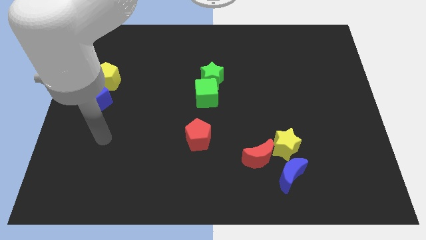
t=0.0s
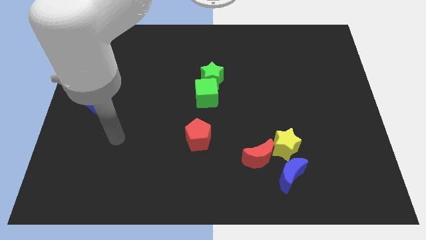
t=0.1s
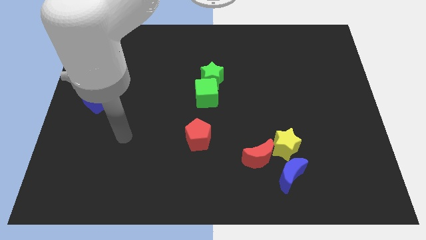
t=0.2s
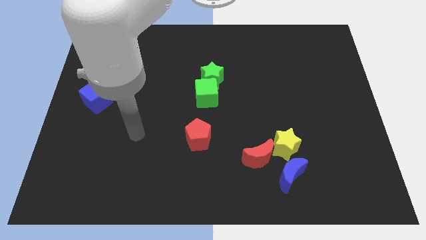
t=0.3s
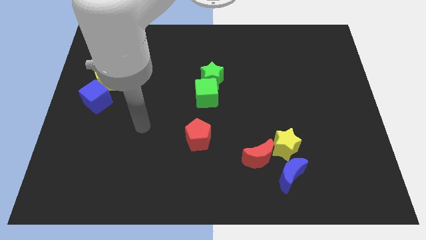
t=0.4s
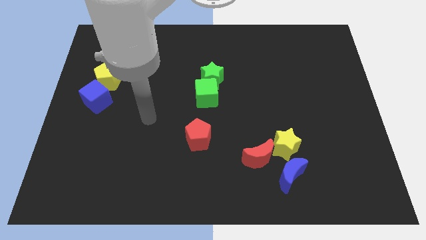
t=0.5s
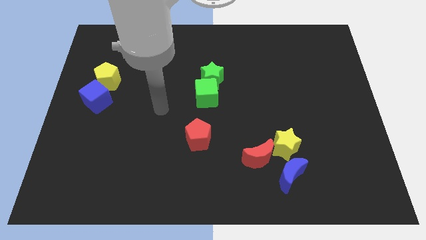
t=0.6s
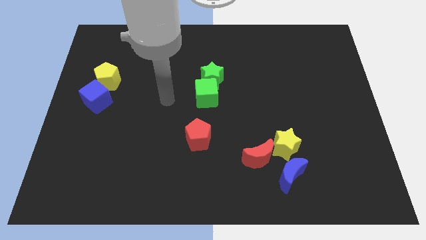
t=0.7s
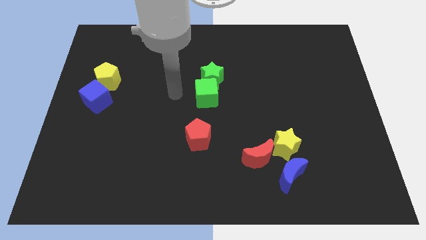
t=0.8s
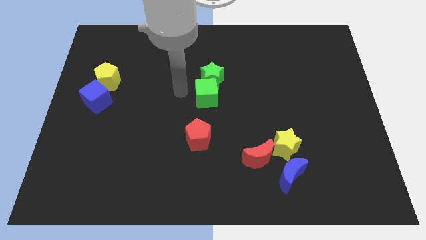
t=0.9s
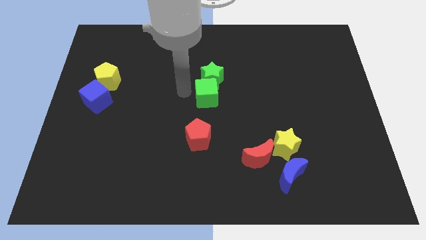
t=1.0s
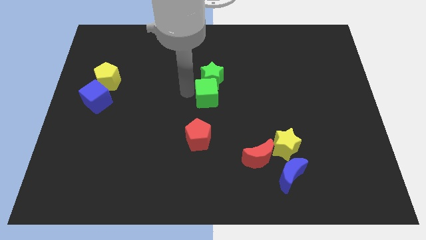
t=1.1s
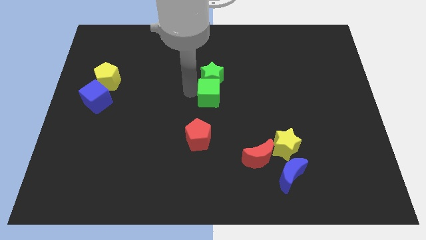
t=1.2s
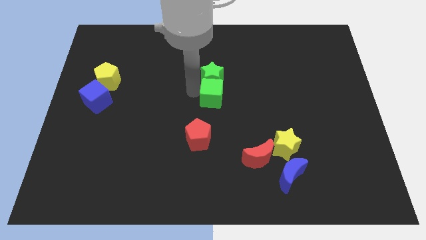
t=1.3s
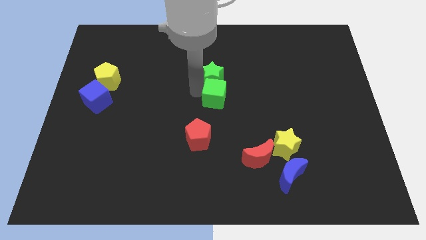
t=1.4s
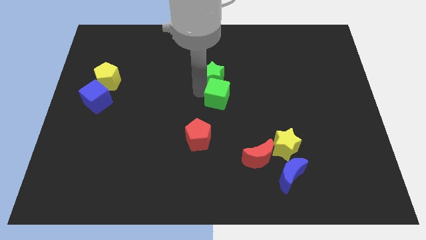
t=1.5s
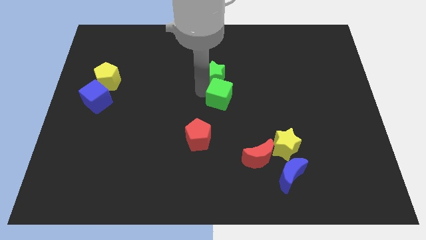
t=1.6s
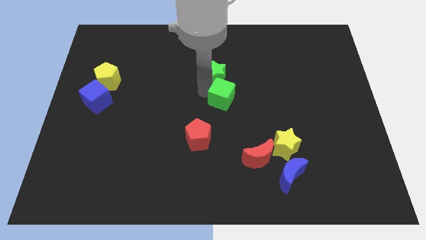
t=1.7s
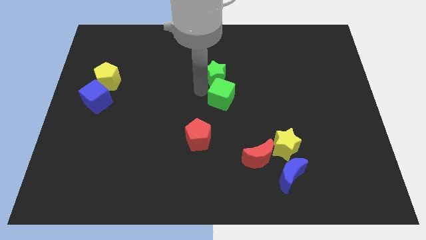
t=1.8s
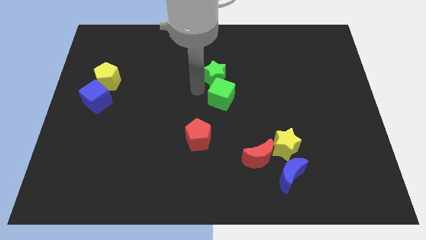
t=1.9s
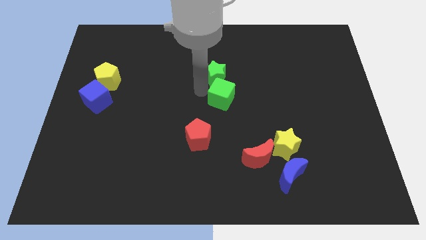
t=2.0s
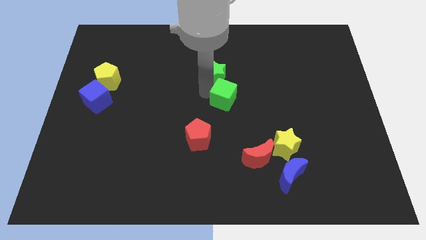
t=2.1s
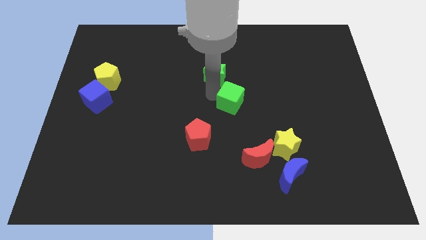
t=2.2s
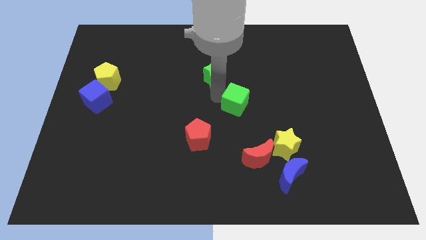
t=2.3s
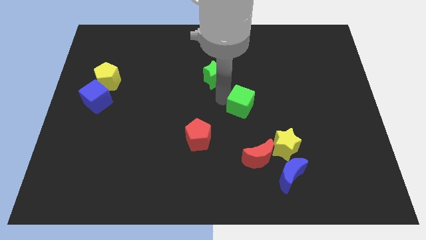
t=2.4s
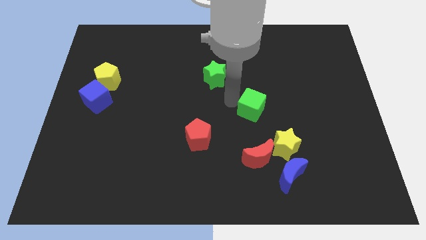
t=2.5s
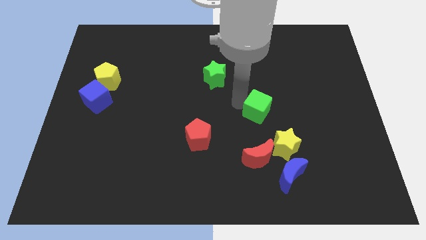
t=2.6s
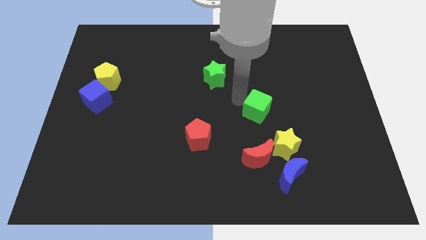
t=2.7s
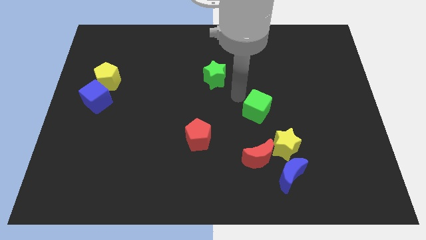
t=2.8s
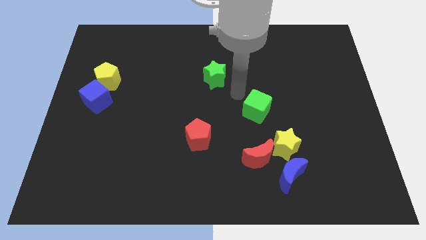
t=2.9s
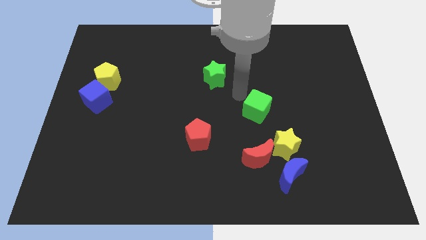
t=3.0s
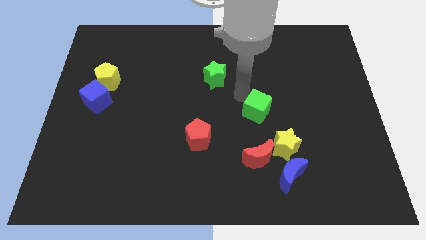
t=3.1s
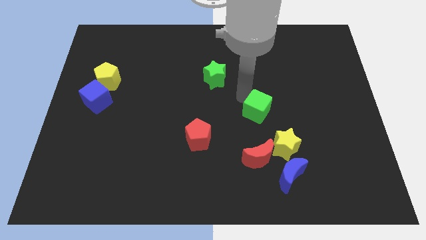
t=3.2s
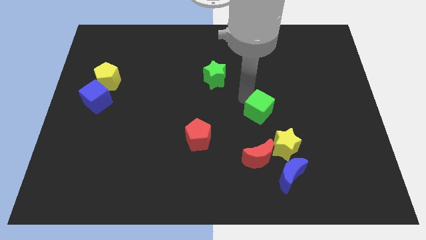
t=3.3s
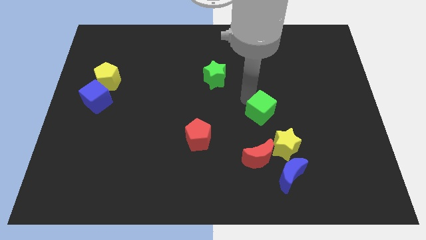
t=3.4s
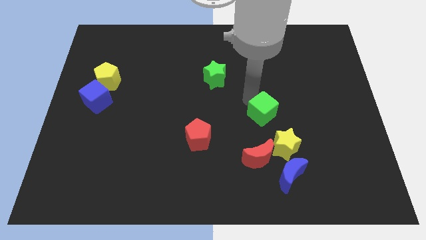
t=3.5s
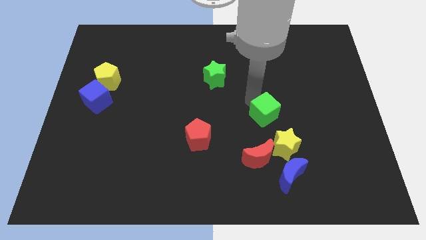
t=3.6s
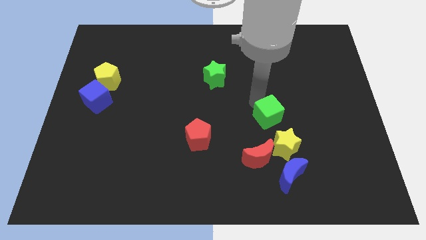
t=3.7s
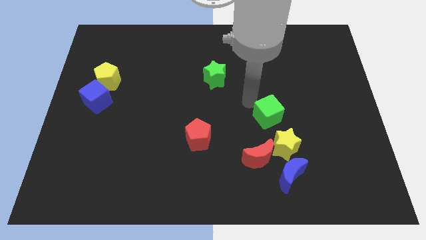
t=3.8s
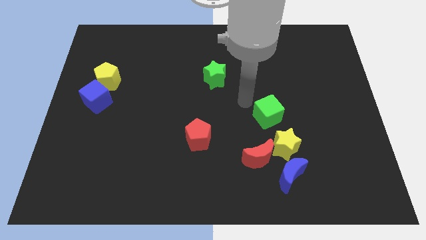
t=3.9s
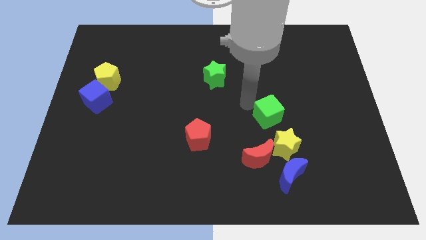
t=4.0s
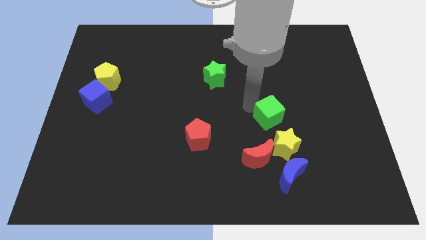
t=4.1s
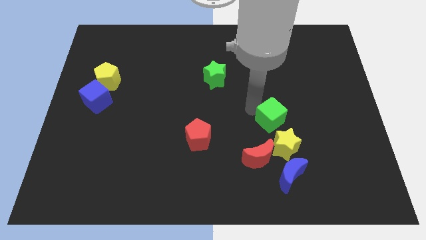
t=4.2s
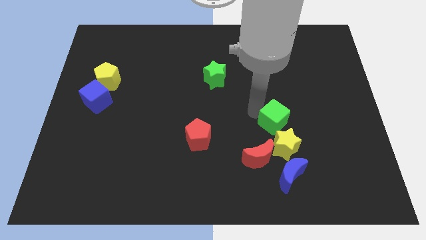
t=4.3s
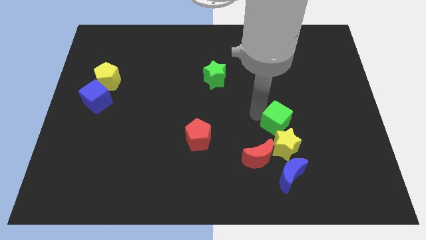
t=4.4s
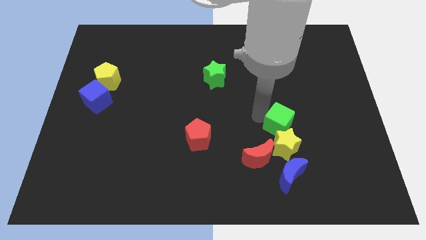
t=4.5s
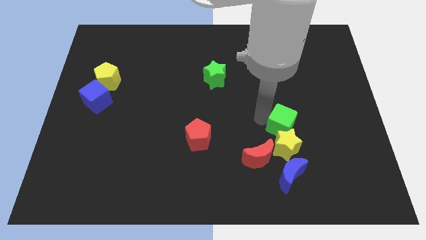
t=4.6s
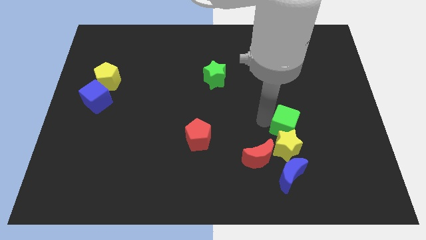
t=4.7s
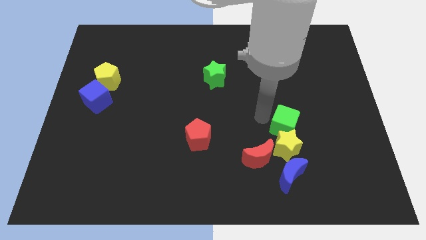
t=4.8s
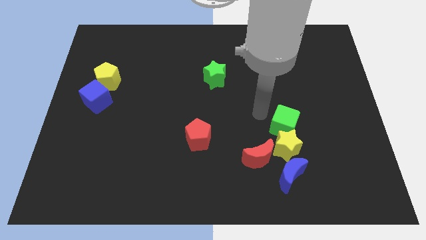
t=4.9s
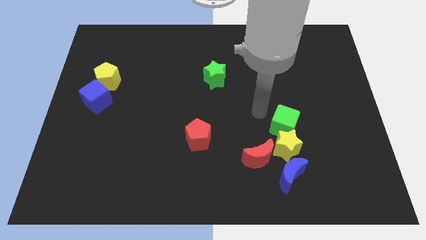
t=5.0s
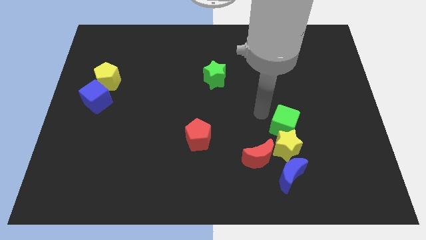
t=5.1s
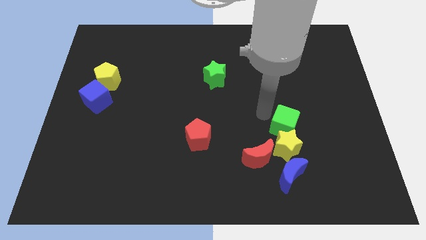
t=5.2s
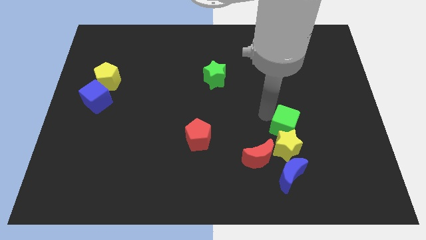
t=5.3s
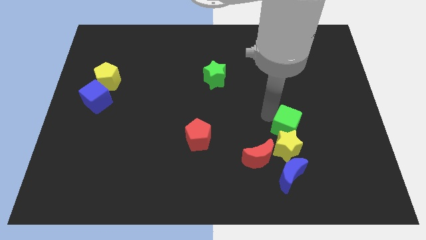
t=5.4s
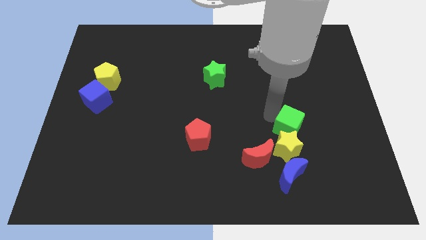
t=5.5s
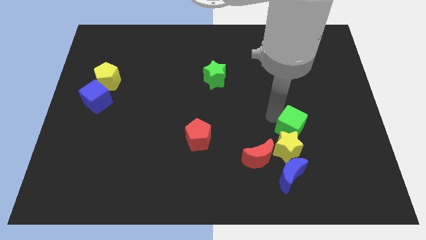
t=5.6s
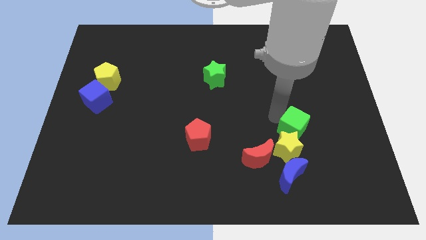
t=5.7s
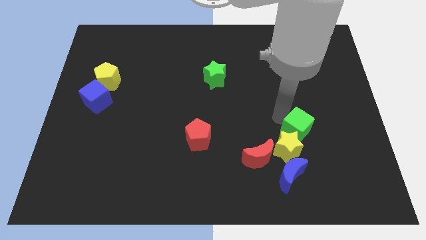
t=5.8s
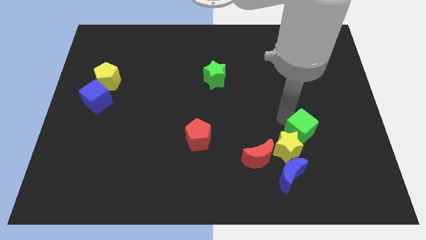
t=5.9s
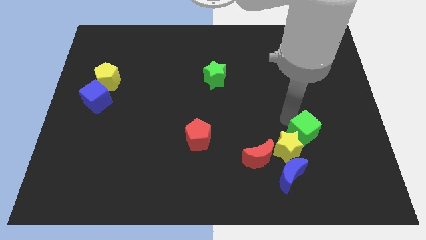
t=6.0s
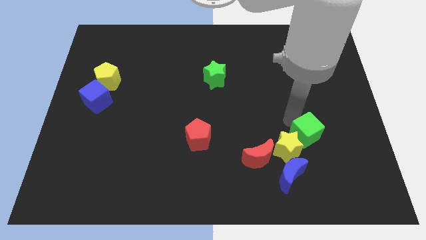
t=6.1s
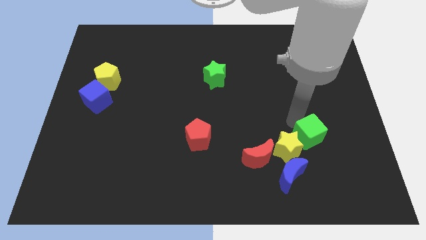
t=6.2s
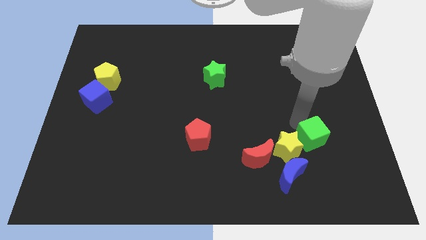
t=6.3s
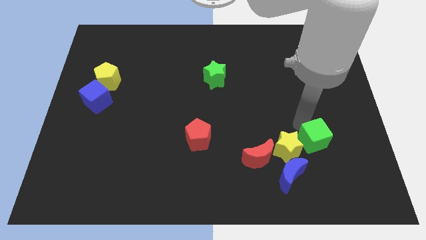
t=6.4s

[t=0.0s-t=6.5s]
put the green cube right of the red moon
